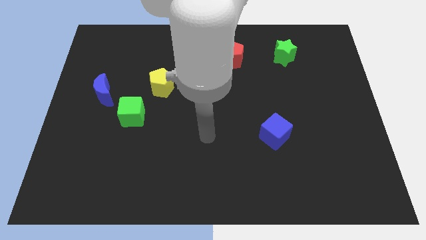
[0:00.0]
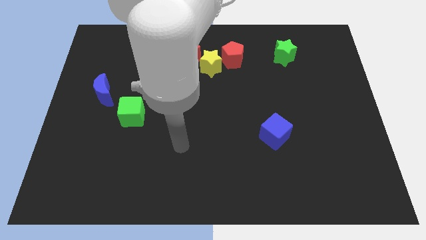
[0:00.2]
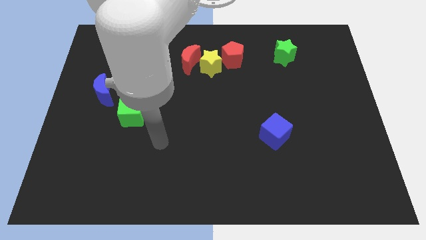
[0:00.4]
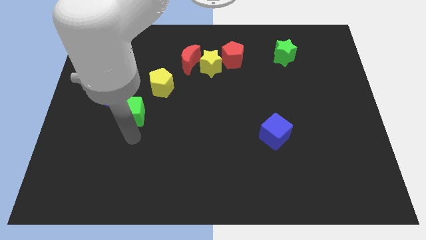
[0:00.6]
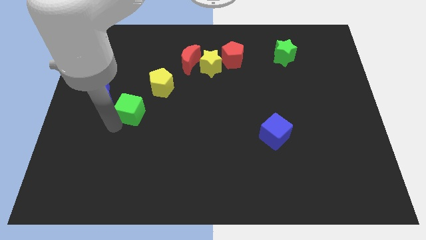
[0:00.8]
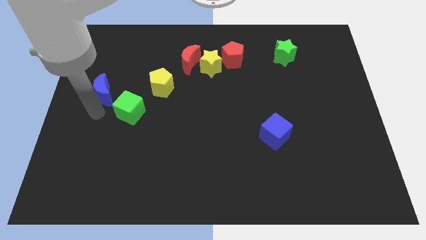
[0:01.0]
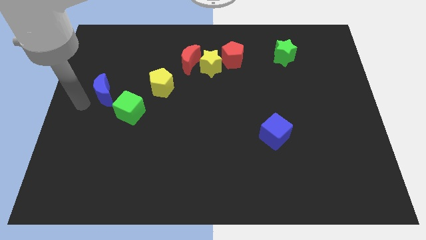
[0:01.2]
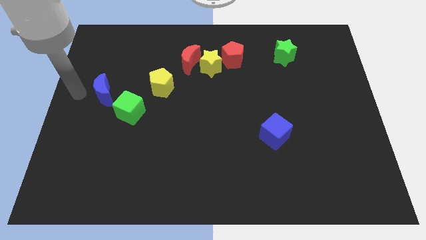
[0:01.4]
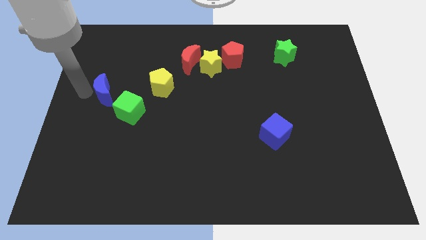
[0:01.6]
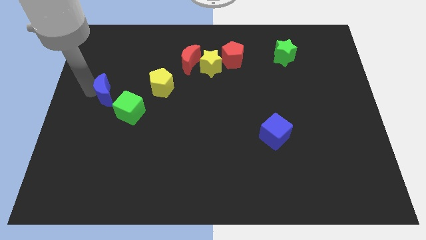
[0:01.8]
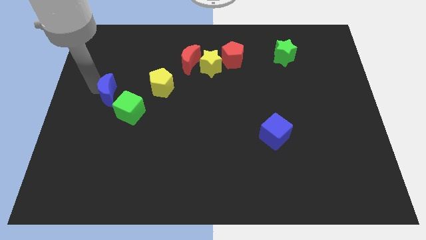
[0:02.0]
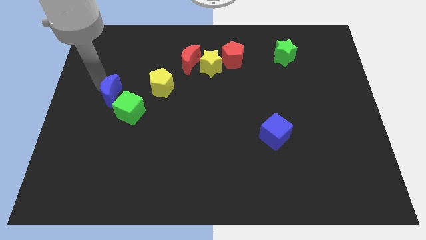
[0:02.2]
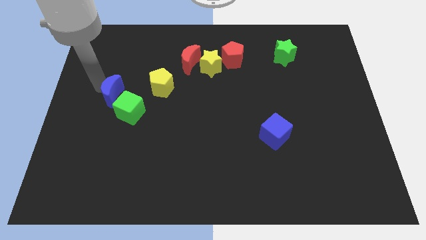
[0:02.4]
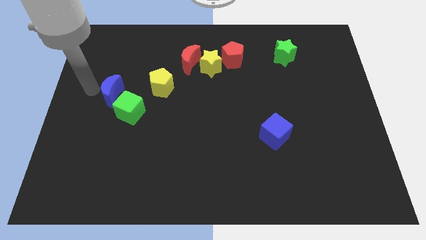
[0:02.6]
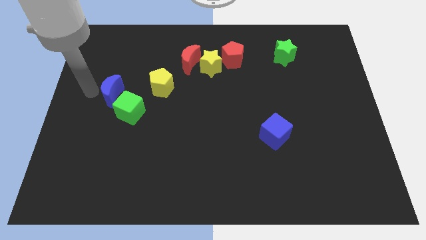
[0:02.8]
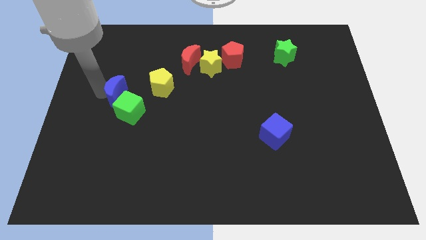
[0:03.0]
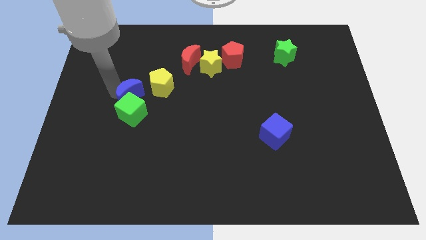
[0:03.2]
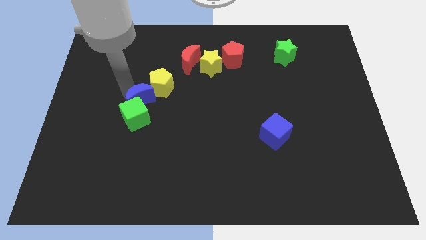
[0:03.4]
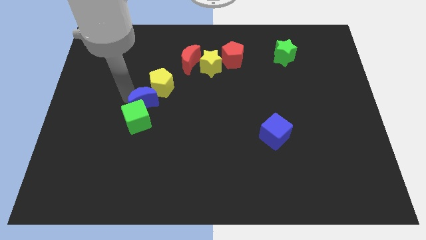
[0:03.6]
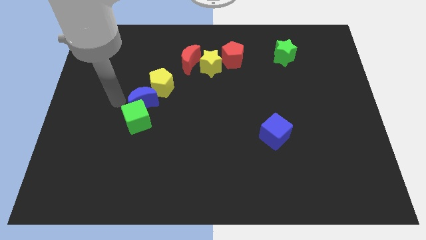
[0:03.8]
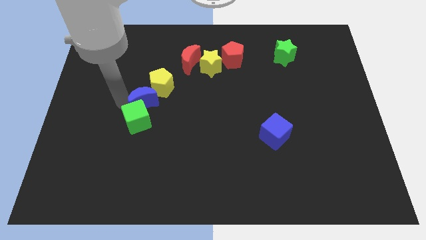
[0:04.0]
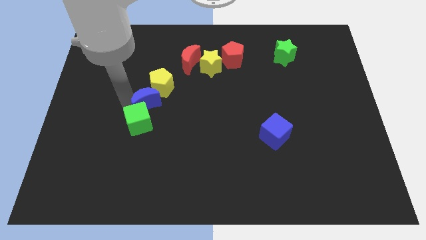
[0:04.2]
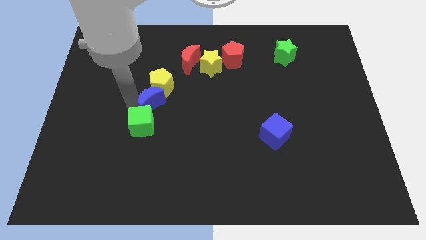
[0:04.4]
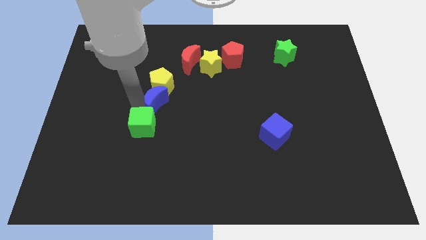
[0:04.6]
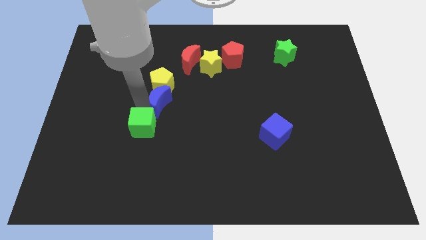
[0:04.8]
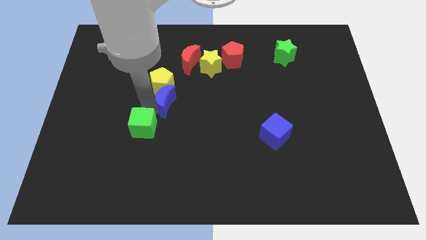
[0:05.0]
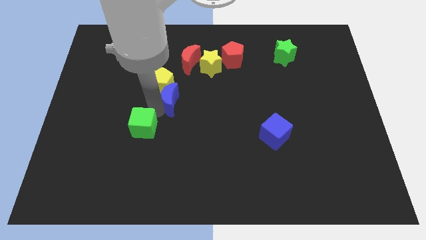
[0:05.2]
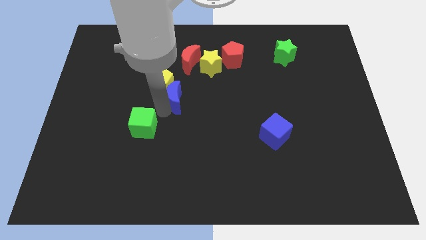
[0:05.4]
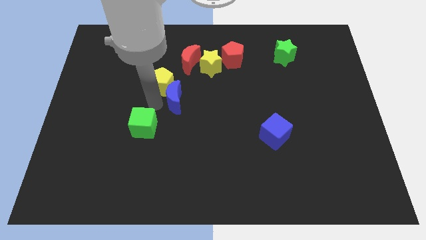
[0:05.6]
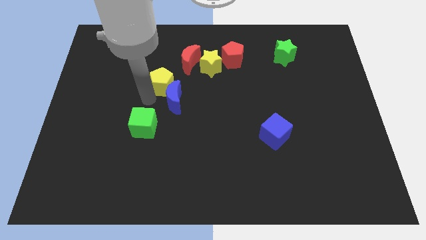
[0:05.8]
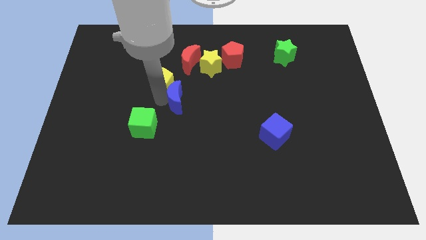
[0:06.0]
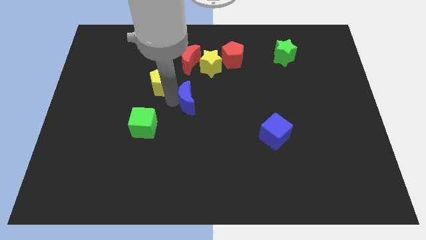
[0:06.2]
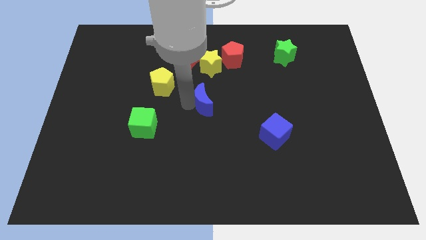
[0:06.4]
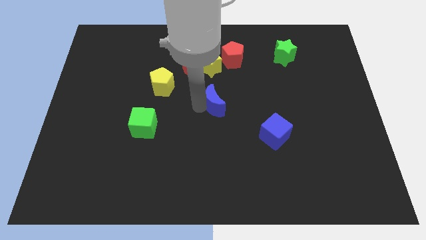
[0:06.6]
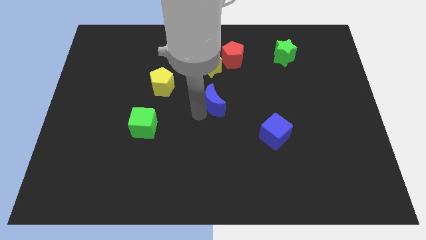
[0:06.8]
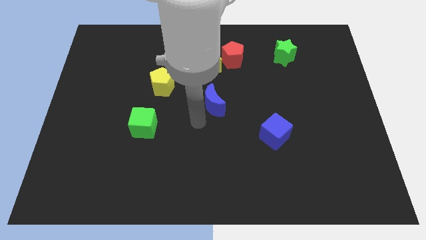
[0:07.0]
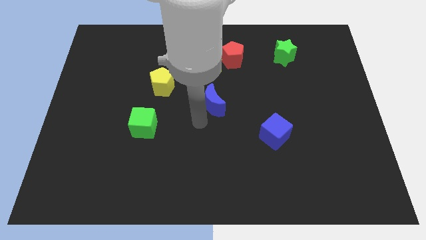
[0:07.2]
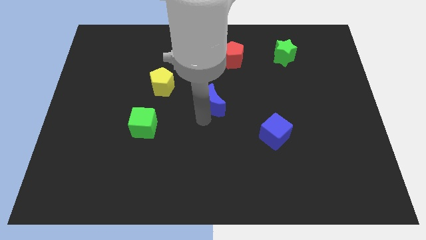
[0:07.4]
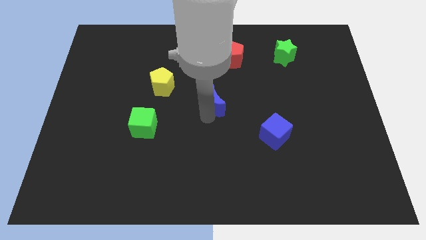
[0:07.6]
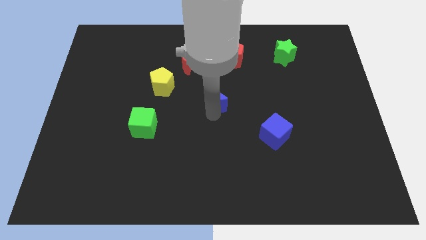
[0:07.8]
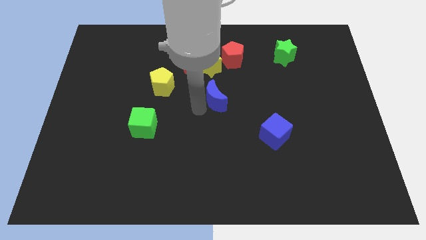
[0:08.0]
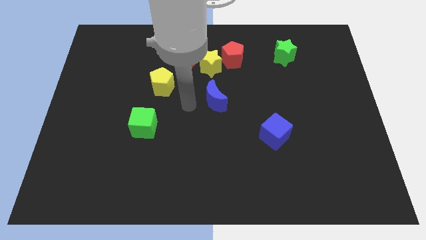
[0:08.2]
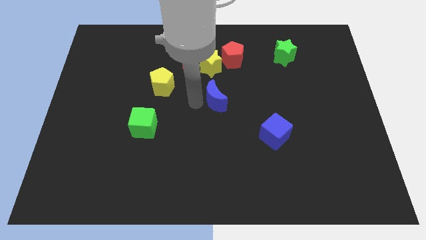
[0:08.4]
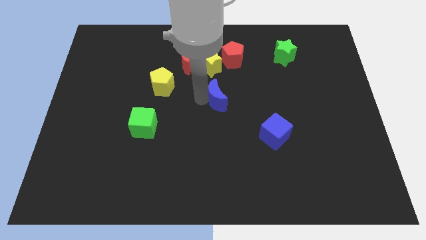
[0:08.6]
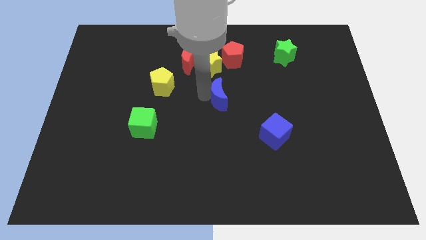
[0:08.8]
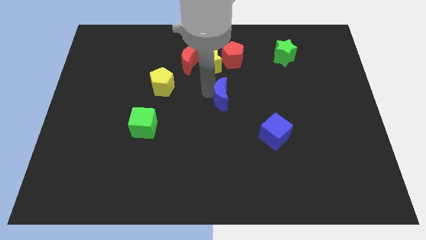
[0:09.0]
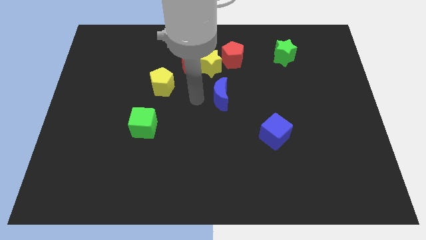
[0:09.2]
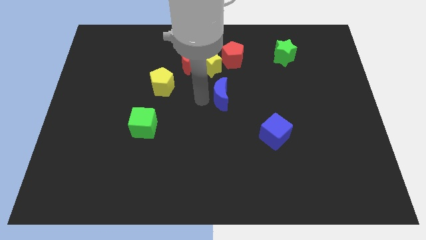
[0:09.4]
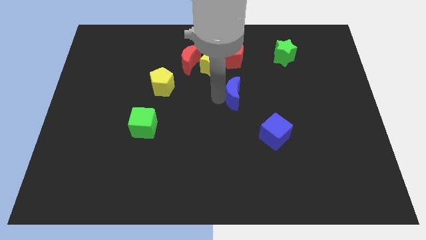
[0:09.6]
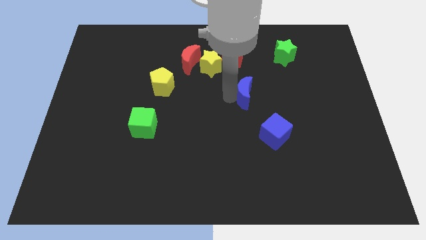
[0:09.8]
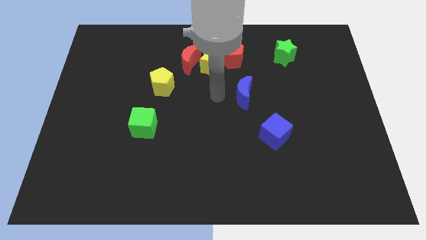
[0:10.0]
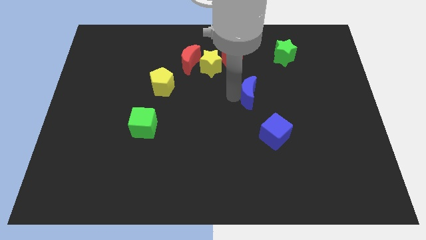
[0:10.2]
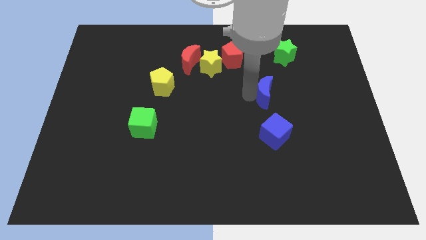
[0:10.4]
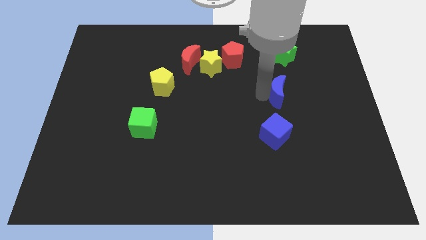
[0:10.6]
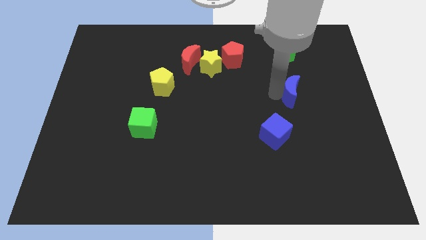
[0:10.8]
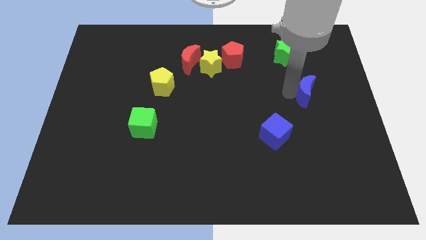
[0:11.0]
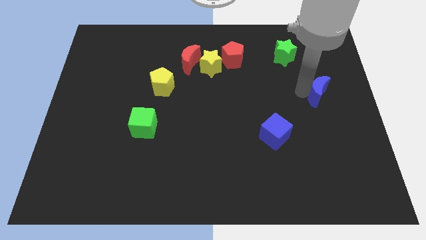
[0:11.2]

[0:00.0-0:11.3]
slide the blue moon to the right side

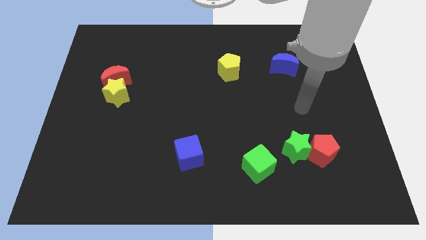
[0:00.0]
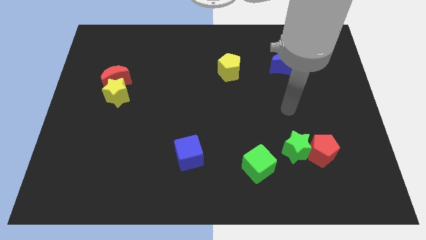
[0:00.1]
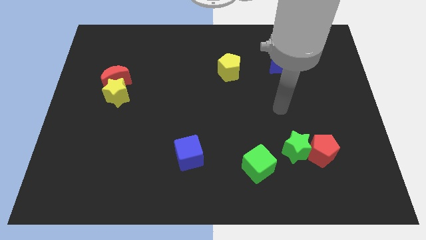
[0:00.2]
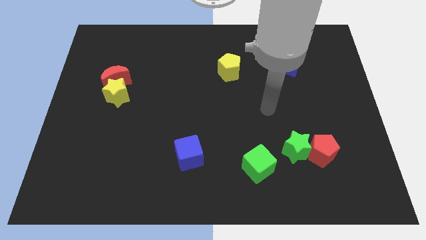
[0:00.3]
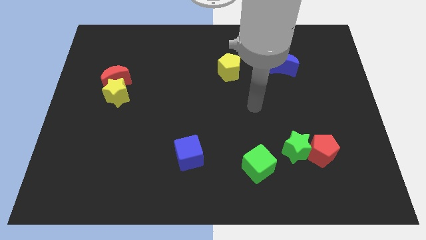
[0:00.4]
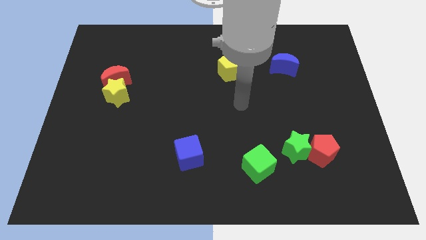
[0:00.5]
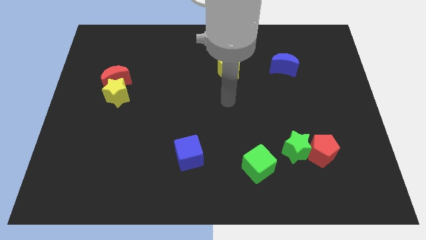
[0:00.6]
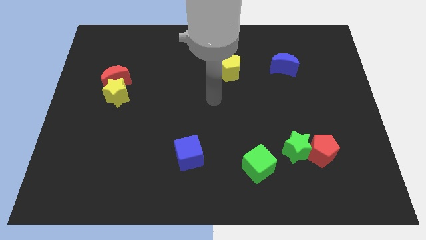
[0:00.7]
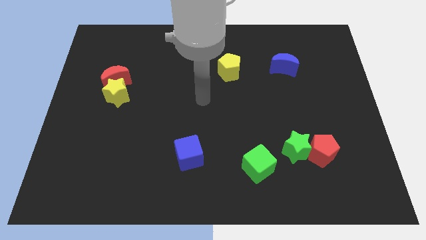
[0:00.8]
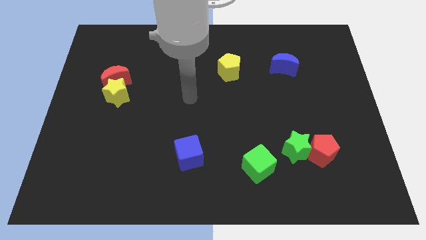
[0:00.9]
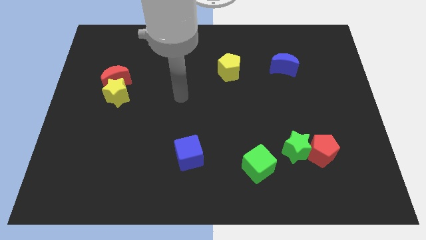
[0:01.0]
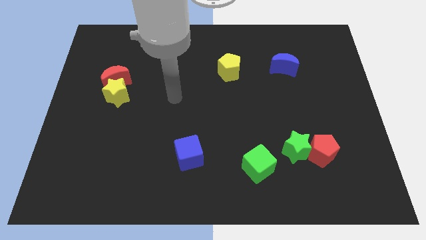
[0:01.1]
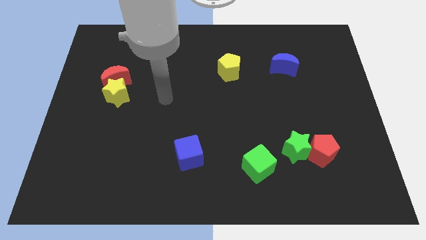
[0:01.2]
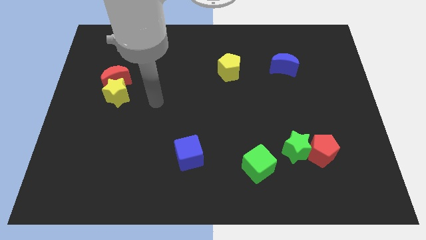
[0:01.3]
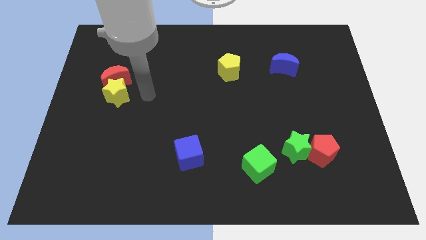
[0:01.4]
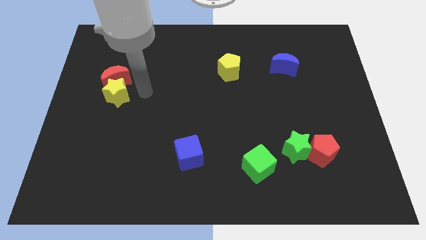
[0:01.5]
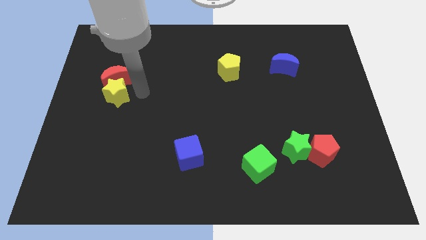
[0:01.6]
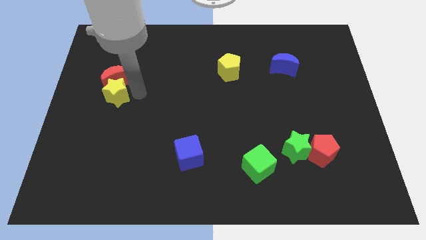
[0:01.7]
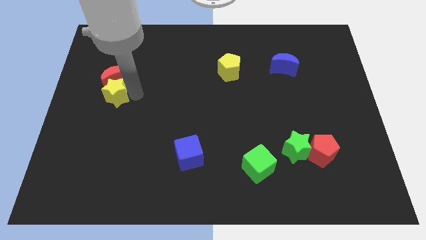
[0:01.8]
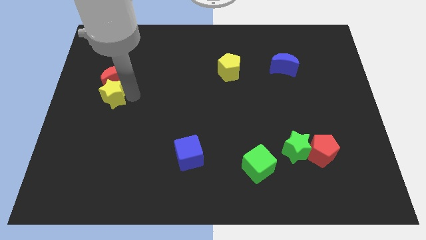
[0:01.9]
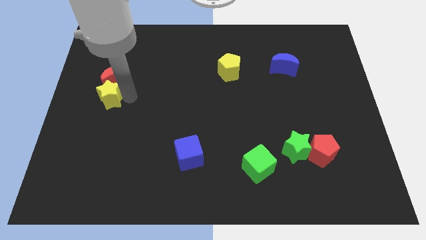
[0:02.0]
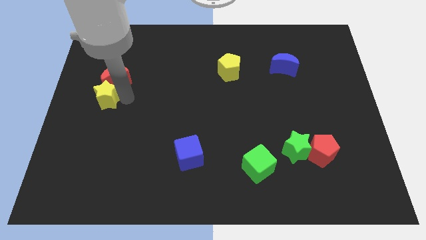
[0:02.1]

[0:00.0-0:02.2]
push the yellow star to the center left
